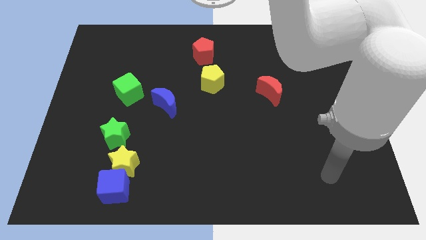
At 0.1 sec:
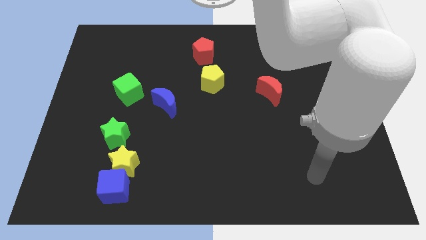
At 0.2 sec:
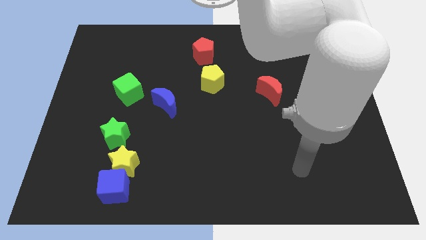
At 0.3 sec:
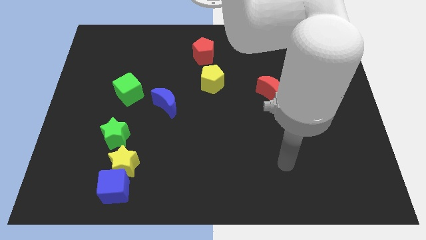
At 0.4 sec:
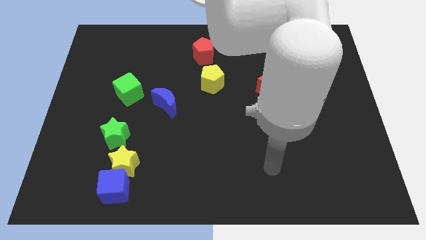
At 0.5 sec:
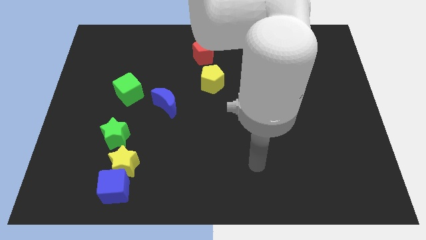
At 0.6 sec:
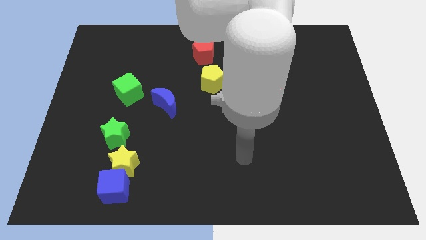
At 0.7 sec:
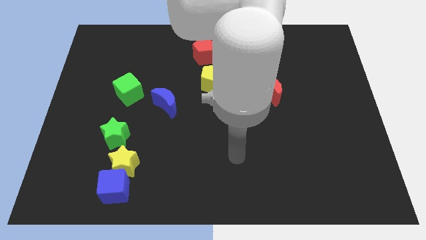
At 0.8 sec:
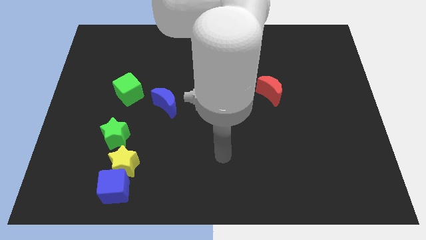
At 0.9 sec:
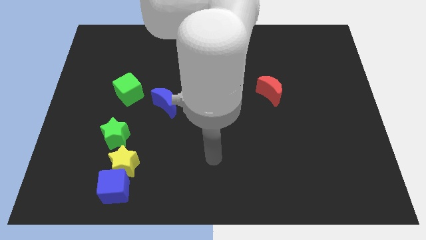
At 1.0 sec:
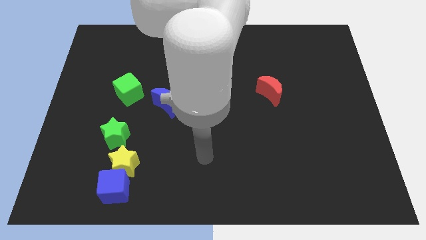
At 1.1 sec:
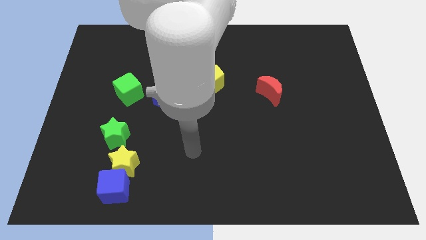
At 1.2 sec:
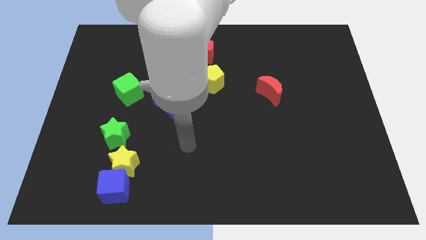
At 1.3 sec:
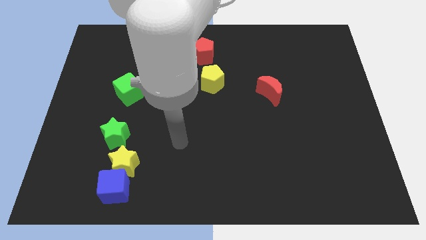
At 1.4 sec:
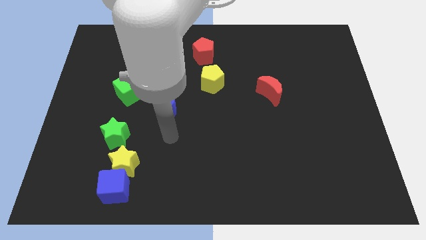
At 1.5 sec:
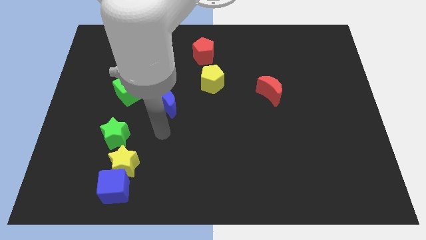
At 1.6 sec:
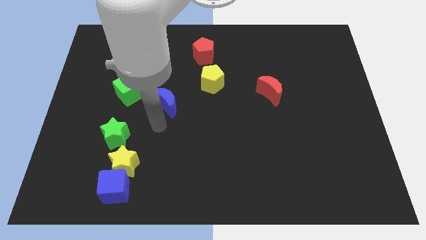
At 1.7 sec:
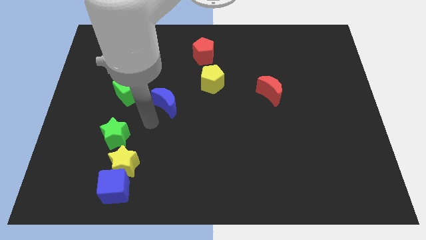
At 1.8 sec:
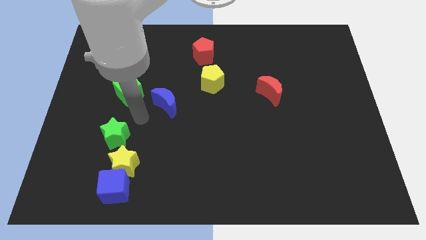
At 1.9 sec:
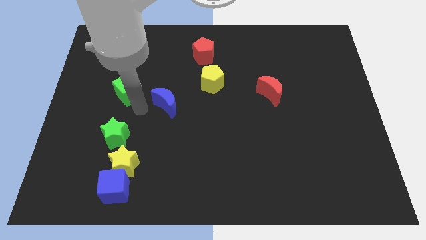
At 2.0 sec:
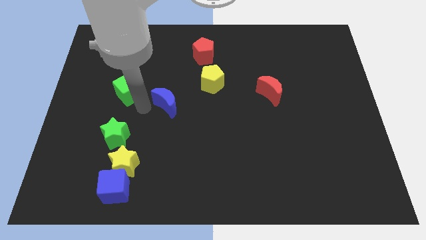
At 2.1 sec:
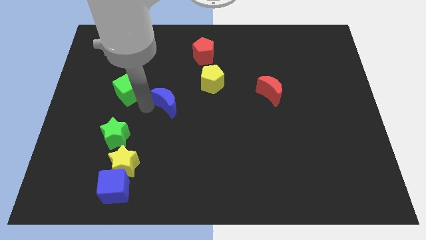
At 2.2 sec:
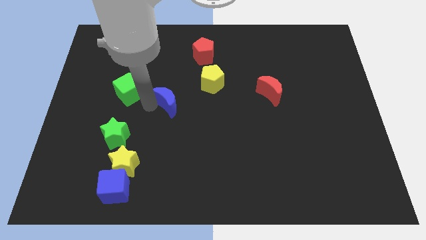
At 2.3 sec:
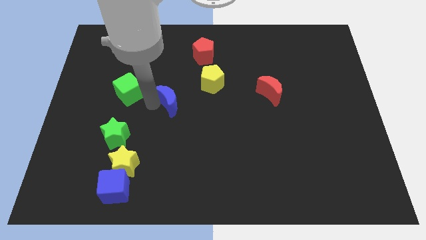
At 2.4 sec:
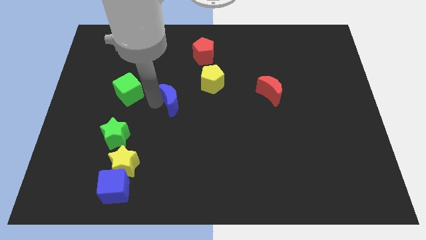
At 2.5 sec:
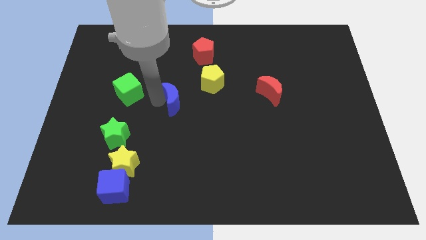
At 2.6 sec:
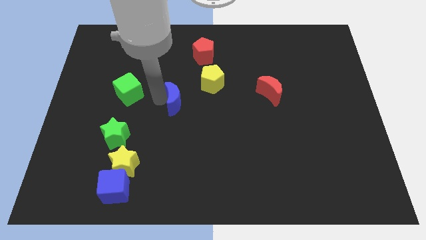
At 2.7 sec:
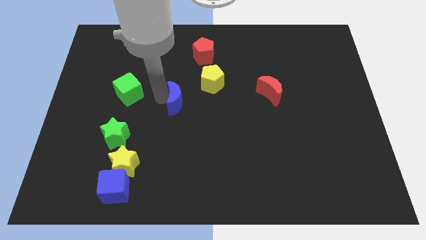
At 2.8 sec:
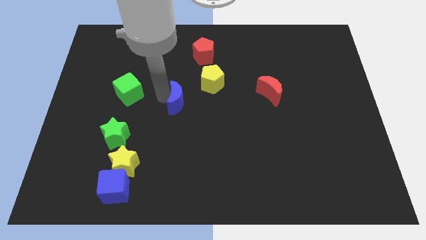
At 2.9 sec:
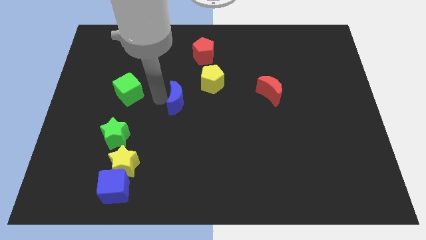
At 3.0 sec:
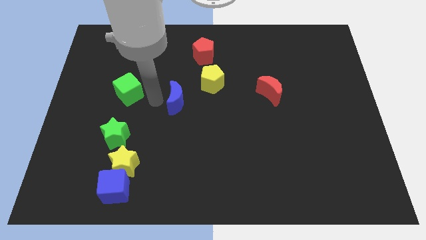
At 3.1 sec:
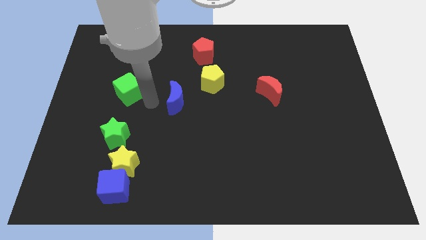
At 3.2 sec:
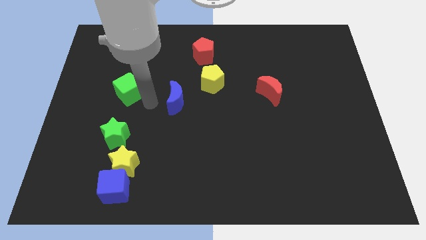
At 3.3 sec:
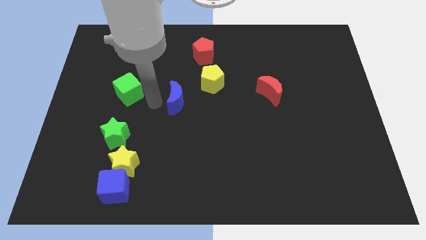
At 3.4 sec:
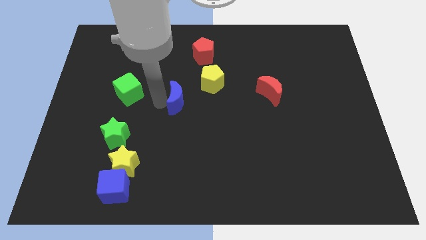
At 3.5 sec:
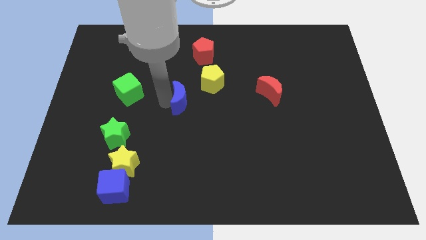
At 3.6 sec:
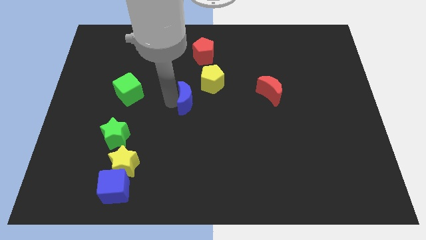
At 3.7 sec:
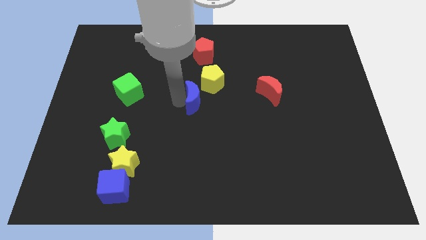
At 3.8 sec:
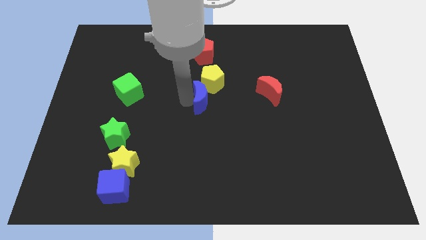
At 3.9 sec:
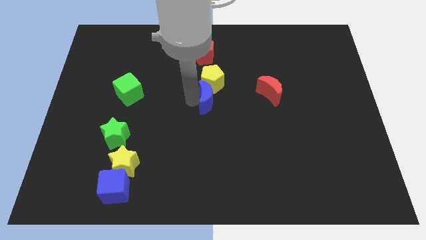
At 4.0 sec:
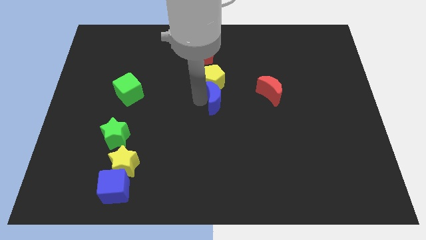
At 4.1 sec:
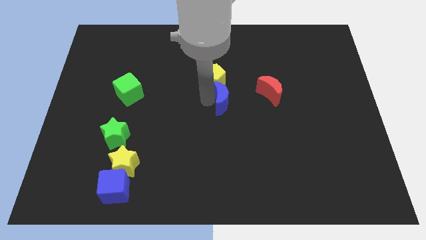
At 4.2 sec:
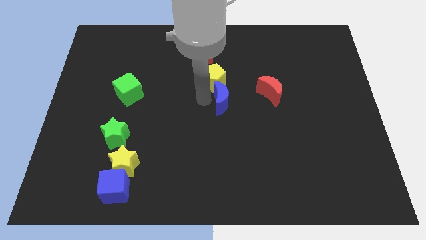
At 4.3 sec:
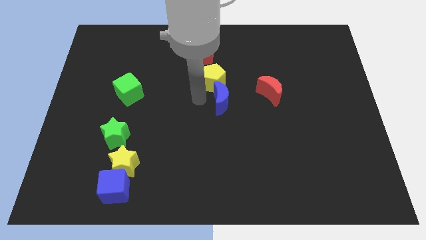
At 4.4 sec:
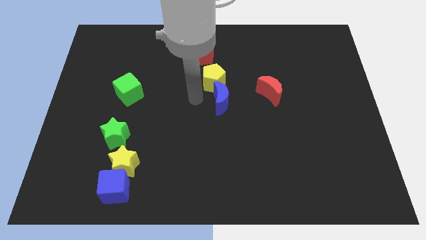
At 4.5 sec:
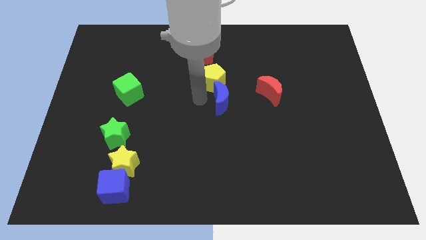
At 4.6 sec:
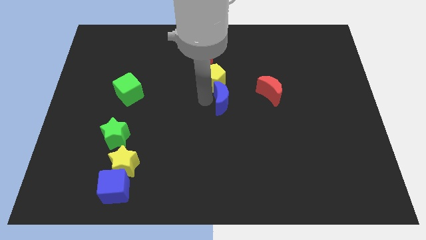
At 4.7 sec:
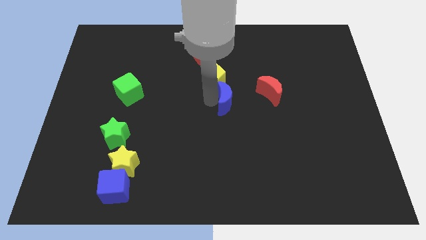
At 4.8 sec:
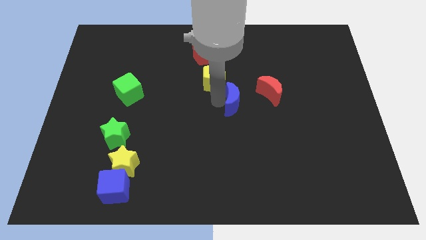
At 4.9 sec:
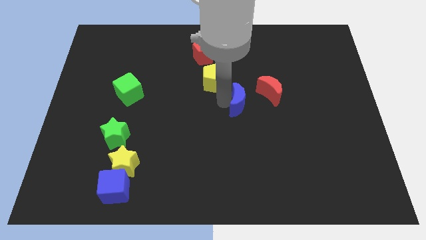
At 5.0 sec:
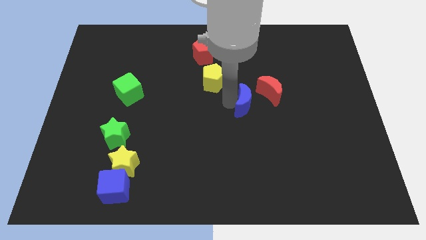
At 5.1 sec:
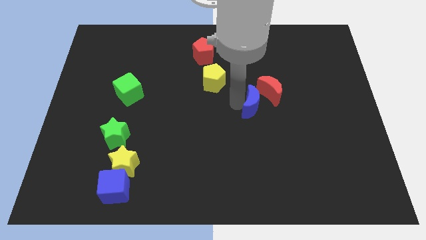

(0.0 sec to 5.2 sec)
slide the blue moon to the right

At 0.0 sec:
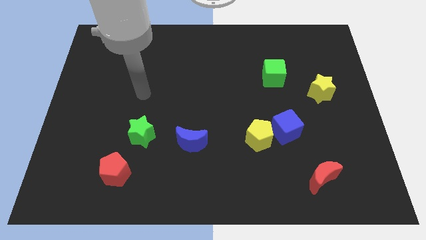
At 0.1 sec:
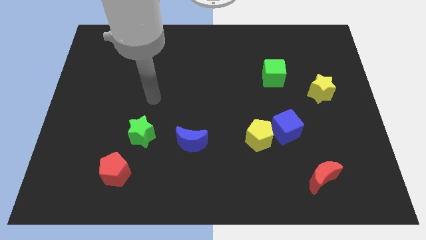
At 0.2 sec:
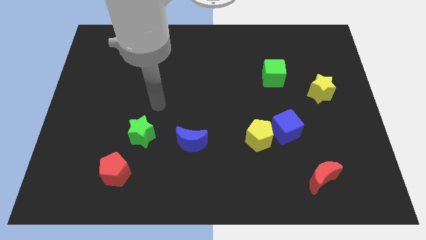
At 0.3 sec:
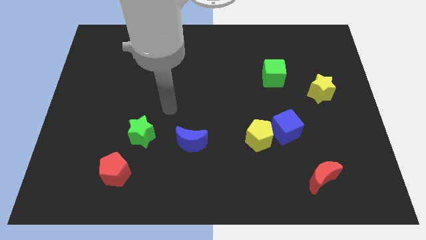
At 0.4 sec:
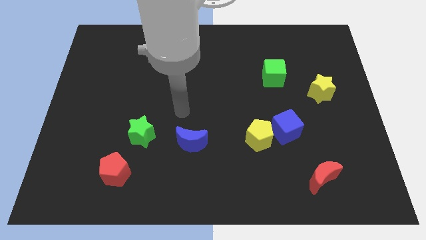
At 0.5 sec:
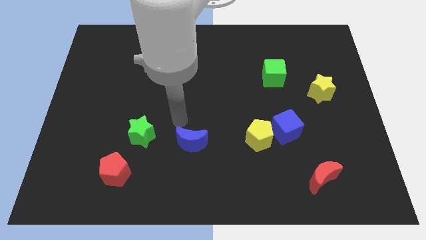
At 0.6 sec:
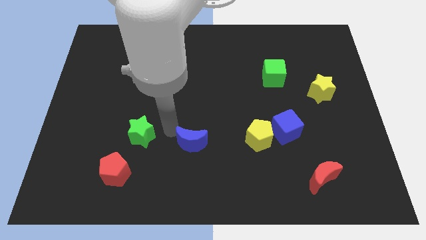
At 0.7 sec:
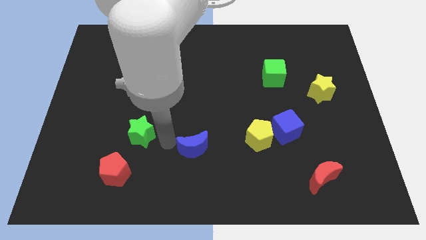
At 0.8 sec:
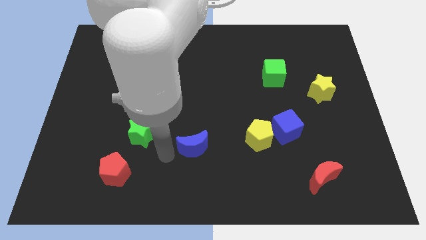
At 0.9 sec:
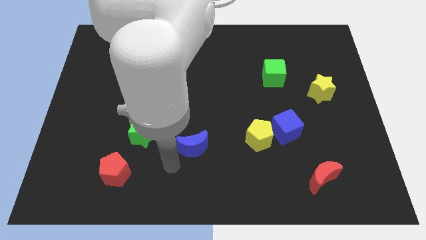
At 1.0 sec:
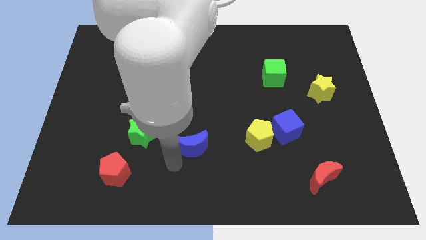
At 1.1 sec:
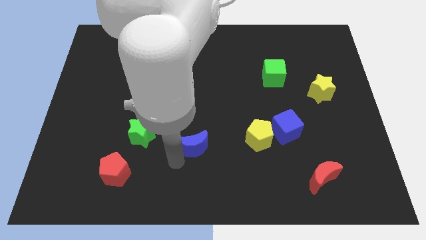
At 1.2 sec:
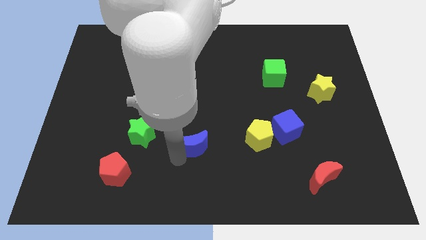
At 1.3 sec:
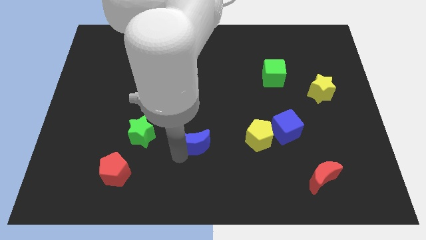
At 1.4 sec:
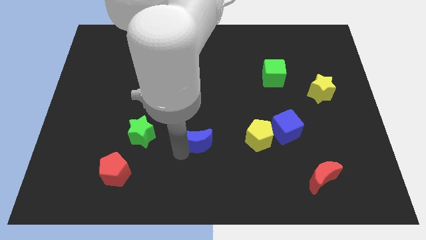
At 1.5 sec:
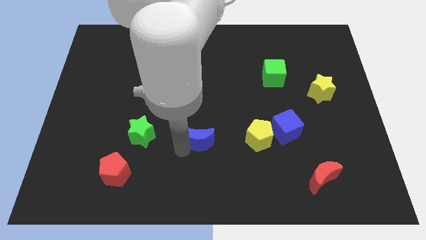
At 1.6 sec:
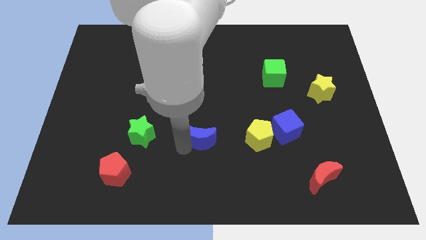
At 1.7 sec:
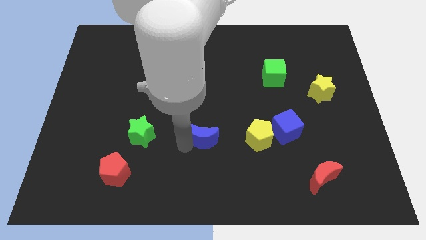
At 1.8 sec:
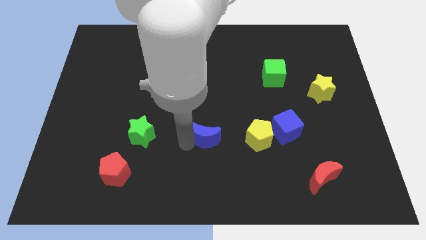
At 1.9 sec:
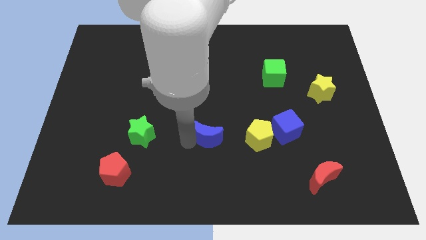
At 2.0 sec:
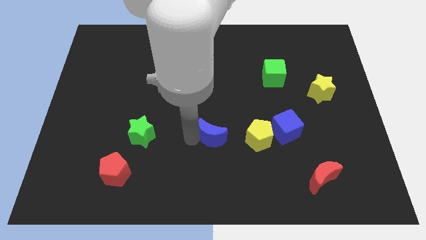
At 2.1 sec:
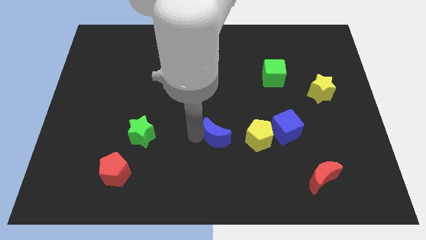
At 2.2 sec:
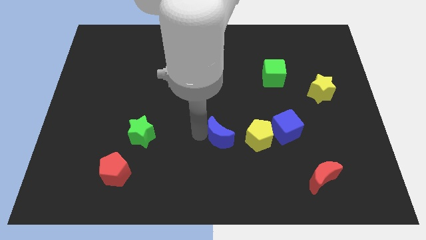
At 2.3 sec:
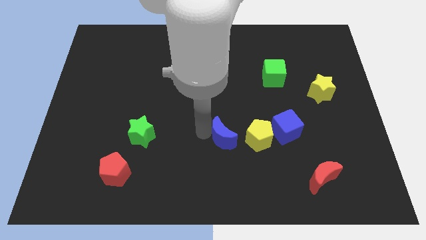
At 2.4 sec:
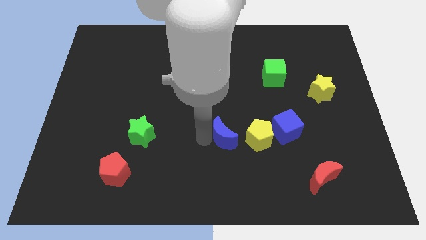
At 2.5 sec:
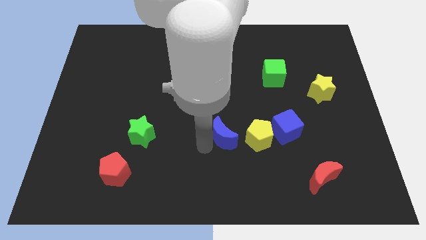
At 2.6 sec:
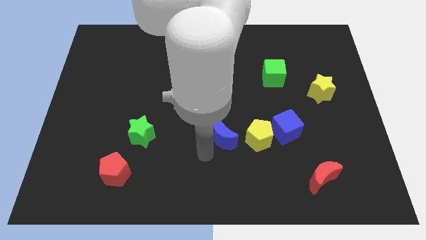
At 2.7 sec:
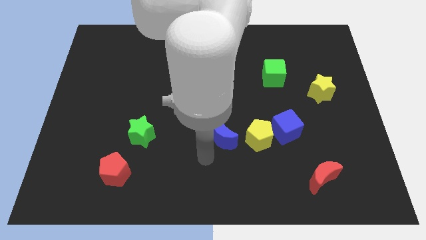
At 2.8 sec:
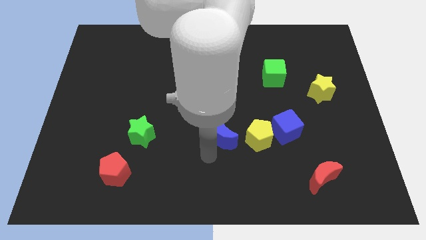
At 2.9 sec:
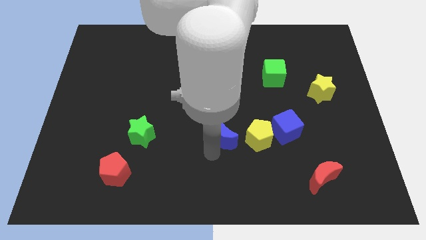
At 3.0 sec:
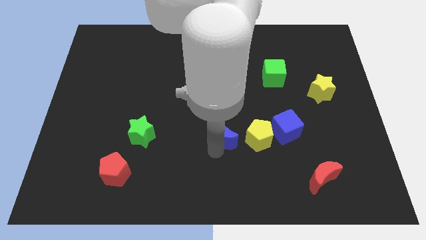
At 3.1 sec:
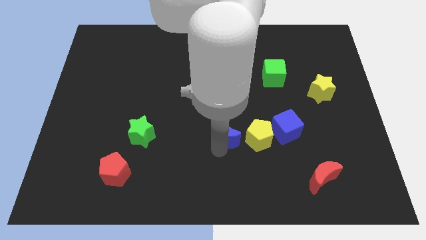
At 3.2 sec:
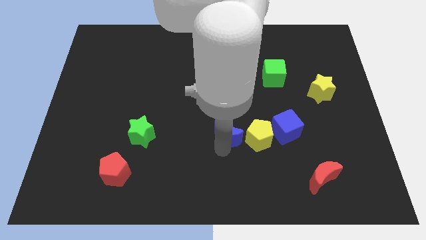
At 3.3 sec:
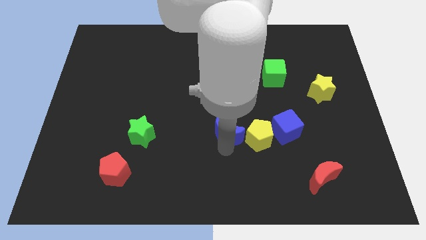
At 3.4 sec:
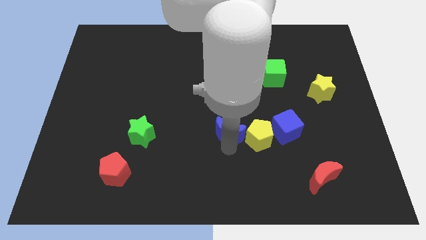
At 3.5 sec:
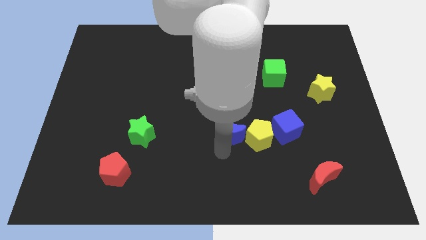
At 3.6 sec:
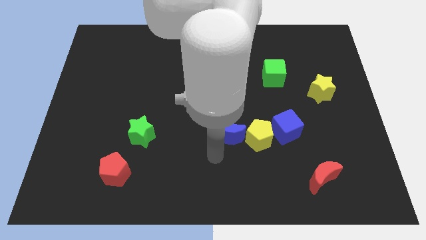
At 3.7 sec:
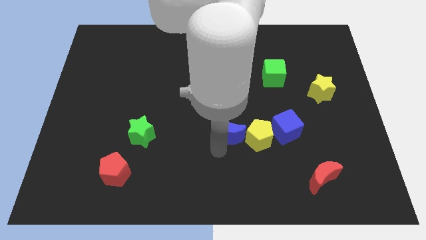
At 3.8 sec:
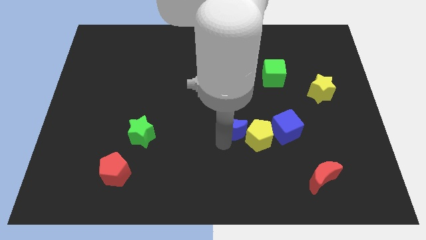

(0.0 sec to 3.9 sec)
move the blue moon slightly upwards and right diagonally
